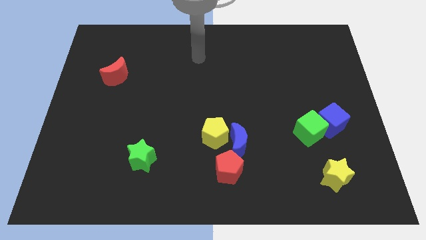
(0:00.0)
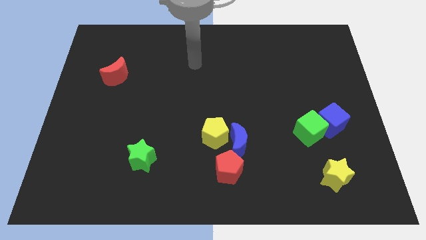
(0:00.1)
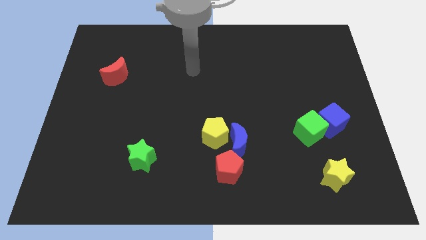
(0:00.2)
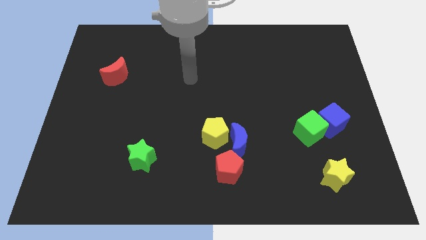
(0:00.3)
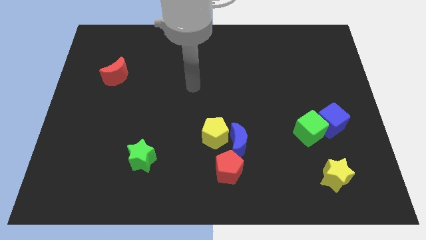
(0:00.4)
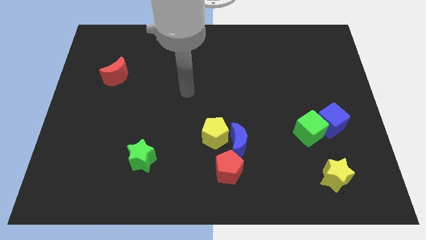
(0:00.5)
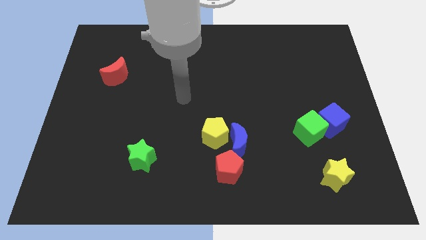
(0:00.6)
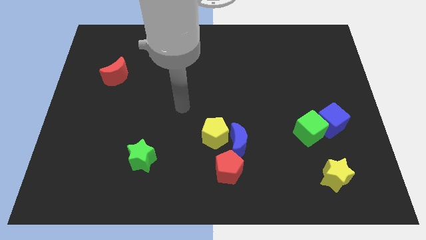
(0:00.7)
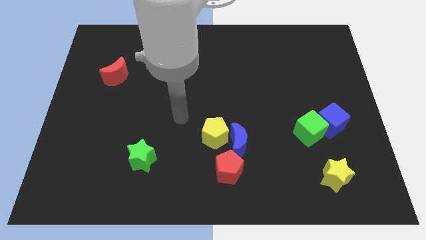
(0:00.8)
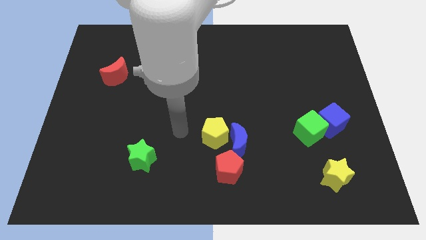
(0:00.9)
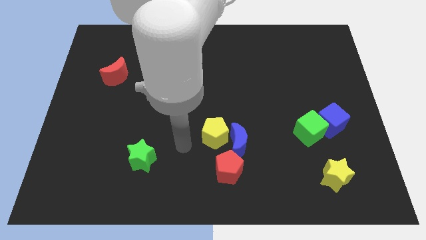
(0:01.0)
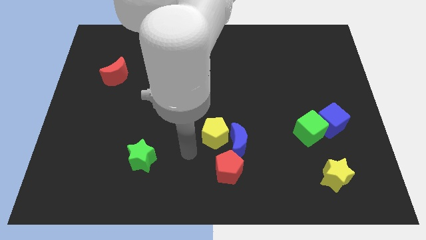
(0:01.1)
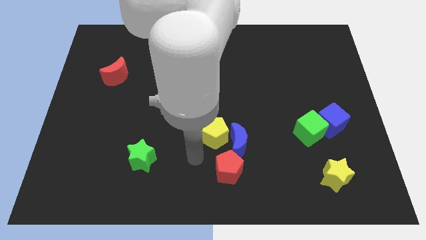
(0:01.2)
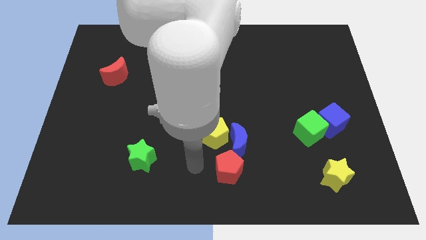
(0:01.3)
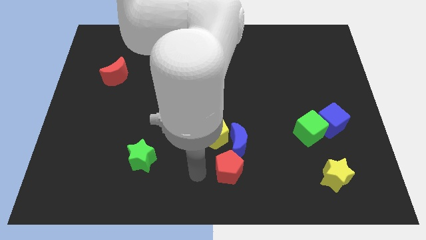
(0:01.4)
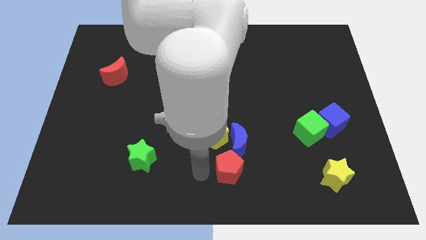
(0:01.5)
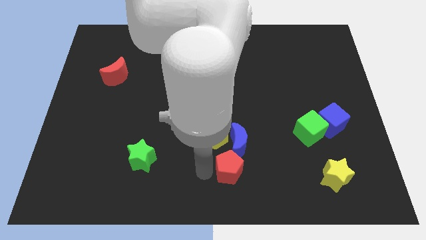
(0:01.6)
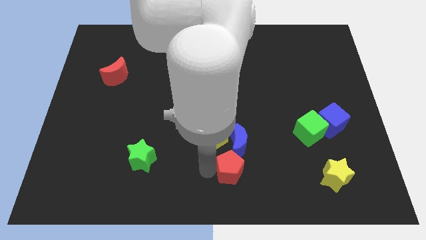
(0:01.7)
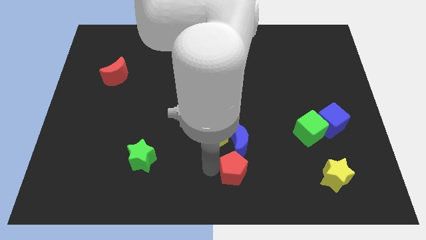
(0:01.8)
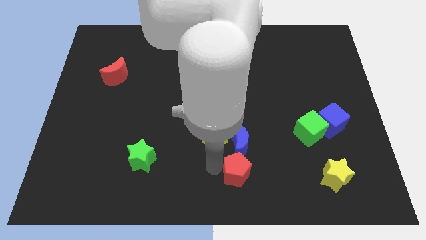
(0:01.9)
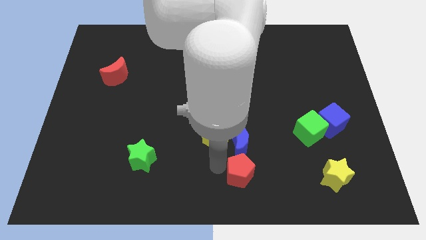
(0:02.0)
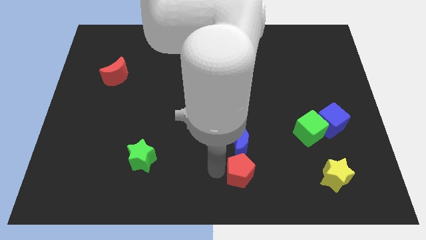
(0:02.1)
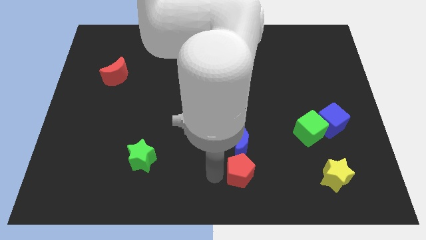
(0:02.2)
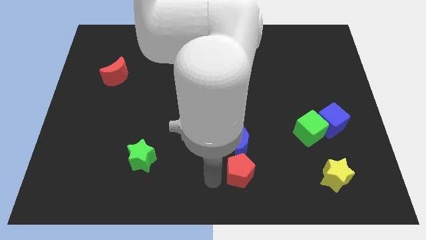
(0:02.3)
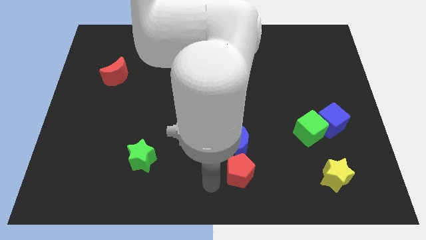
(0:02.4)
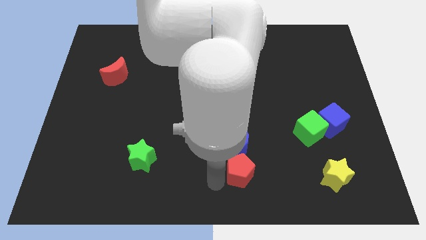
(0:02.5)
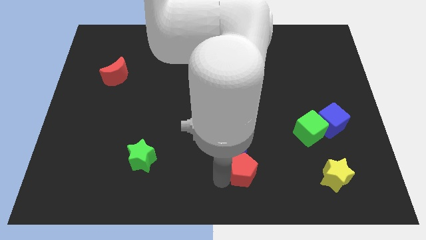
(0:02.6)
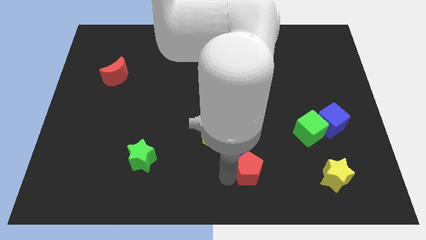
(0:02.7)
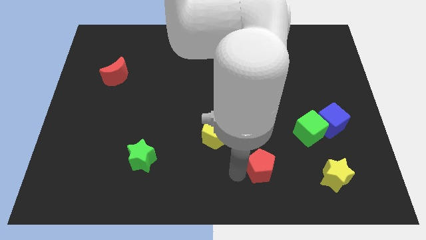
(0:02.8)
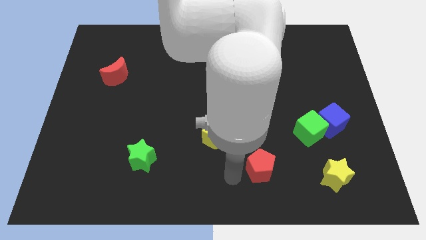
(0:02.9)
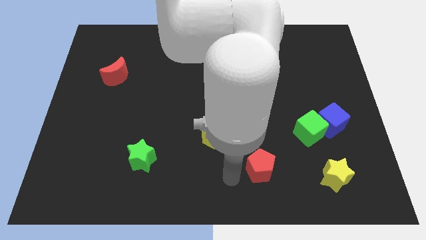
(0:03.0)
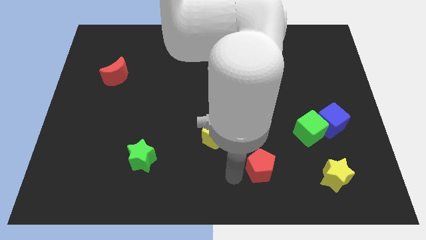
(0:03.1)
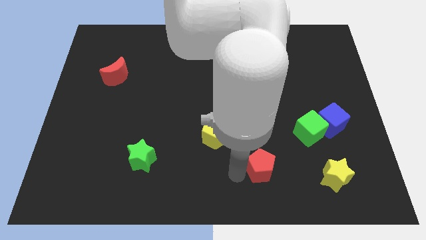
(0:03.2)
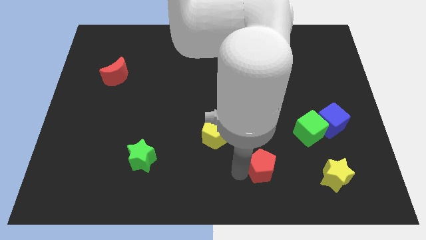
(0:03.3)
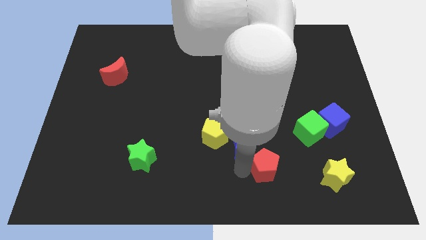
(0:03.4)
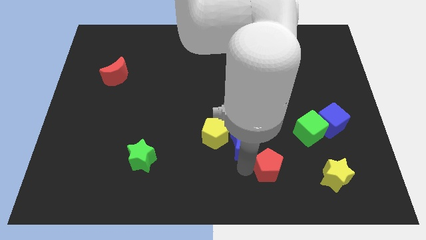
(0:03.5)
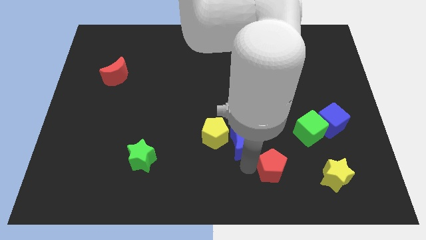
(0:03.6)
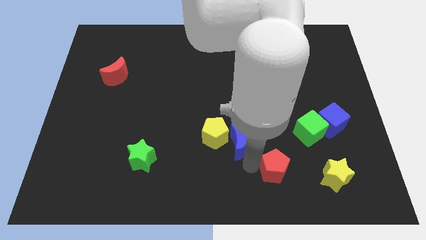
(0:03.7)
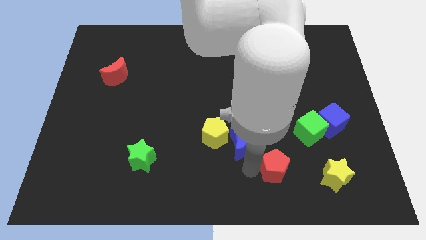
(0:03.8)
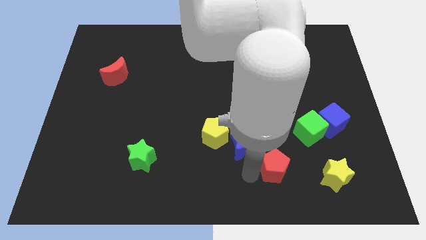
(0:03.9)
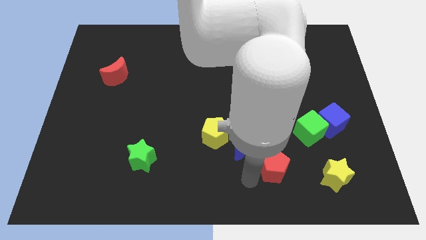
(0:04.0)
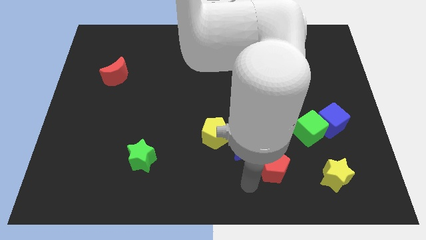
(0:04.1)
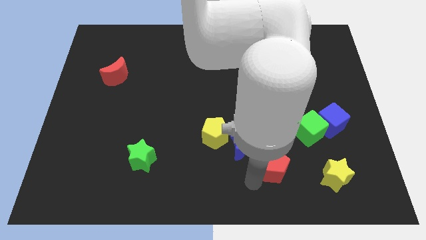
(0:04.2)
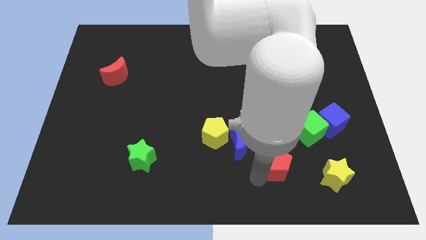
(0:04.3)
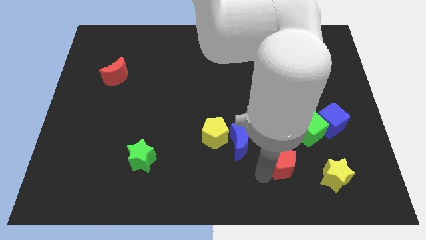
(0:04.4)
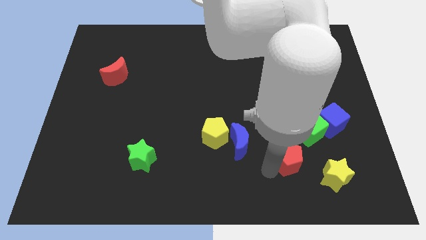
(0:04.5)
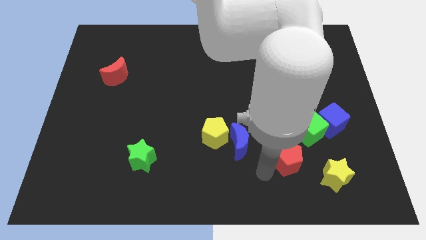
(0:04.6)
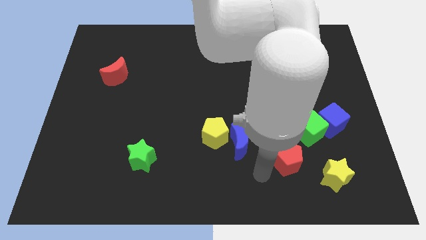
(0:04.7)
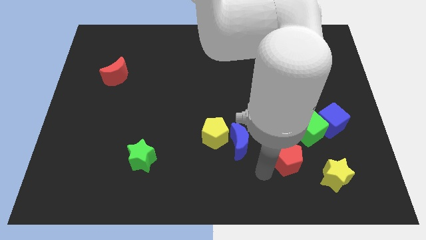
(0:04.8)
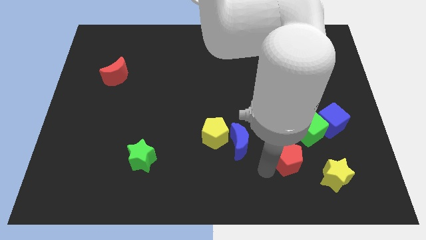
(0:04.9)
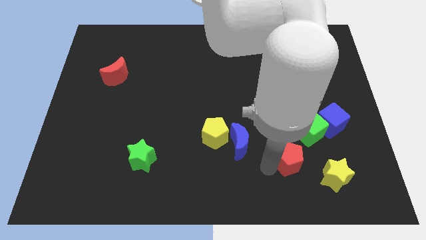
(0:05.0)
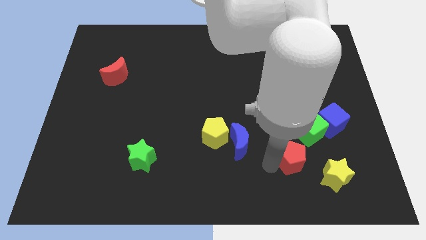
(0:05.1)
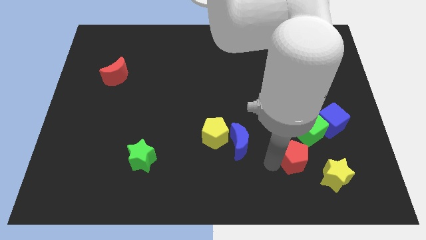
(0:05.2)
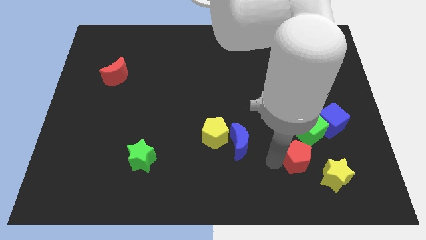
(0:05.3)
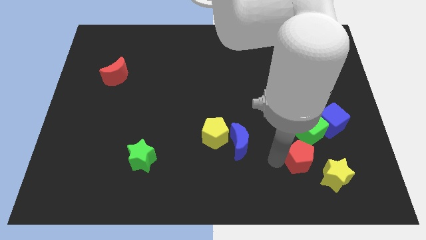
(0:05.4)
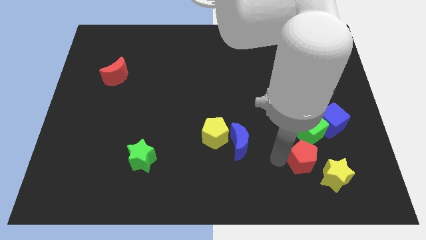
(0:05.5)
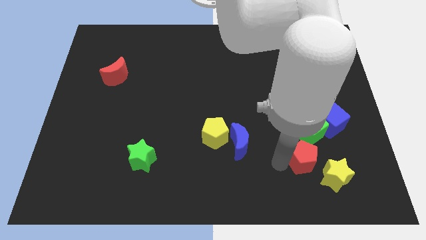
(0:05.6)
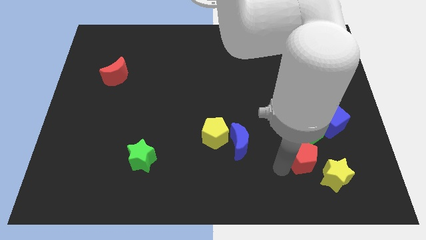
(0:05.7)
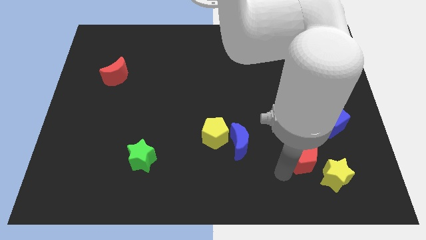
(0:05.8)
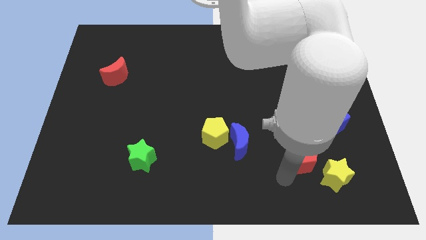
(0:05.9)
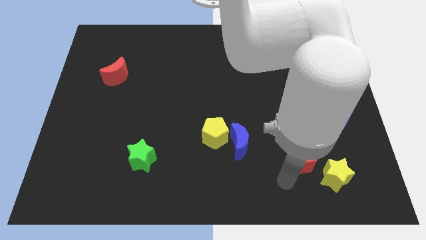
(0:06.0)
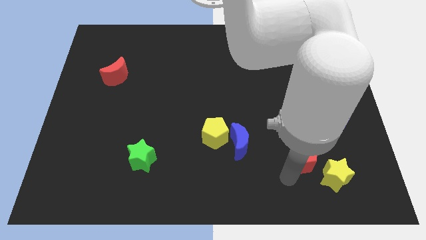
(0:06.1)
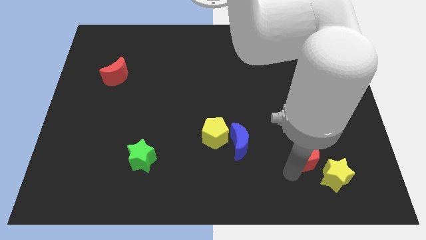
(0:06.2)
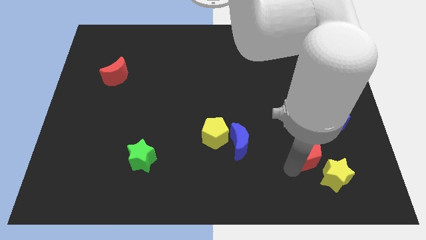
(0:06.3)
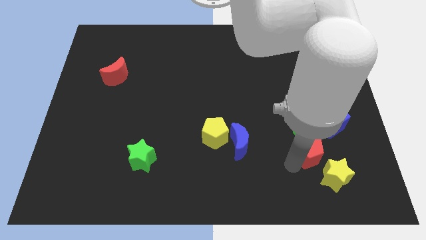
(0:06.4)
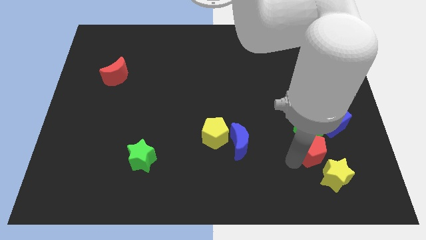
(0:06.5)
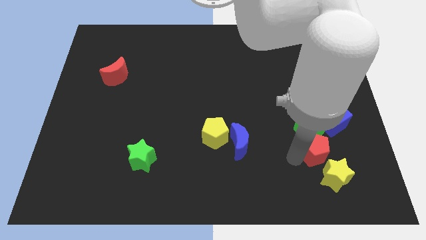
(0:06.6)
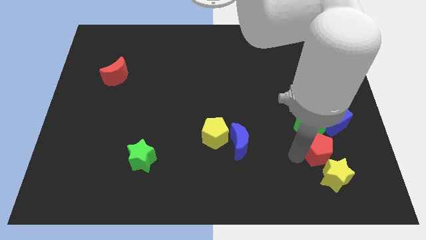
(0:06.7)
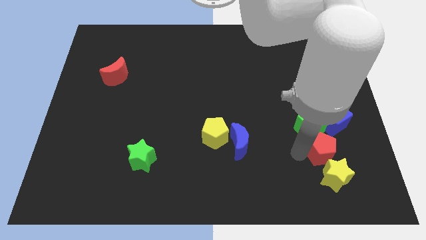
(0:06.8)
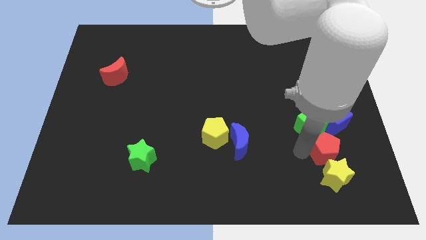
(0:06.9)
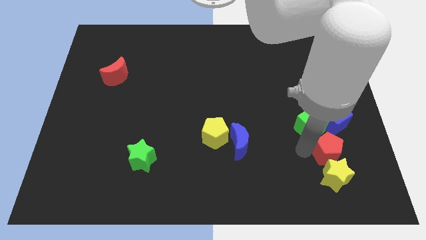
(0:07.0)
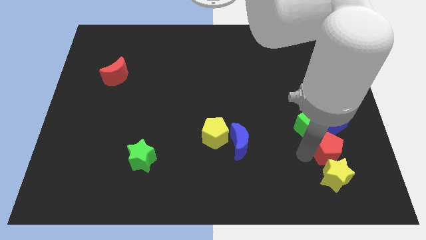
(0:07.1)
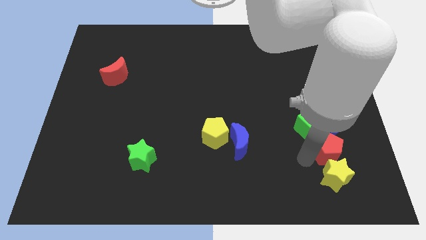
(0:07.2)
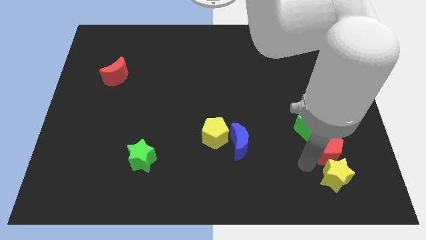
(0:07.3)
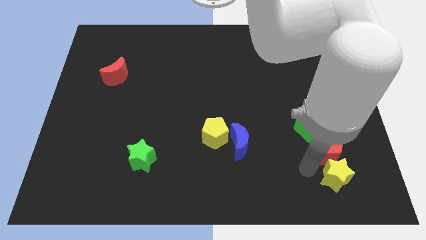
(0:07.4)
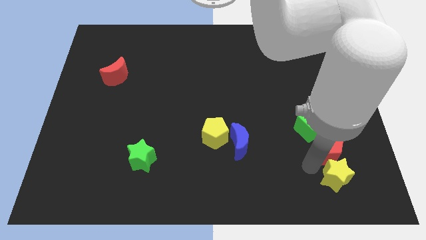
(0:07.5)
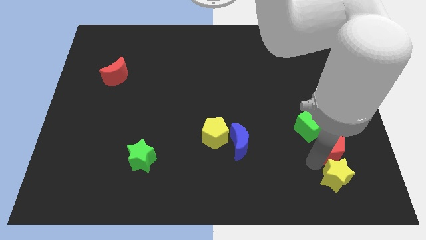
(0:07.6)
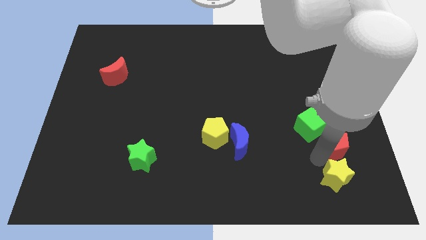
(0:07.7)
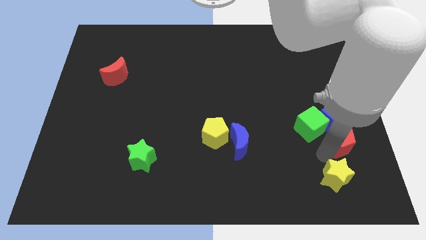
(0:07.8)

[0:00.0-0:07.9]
put the red pentagon next to the blue cube
